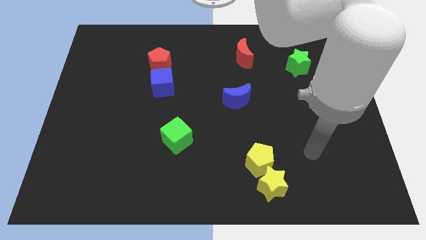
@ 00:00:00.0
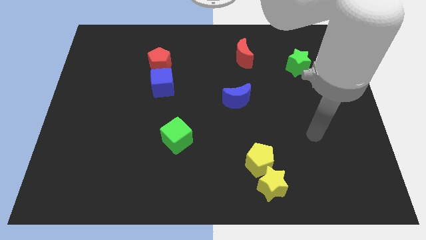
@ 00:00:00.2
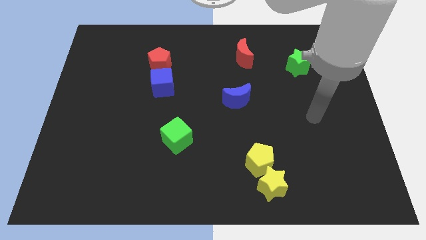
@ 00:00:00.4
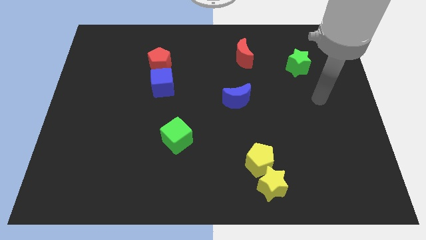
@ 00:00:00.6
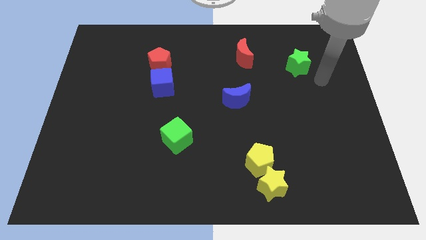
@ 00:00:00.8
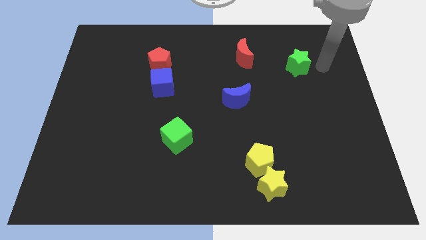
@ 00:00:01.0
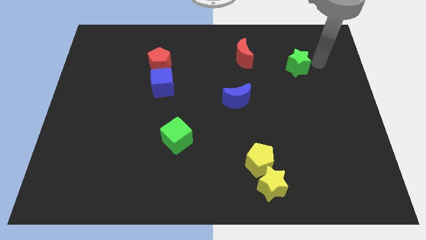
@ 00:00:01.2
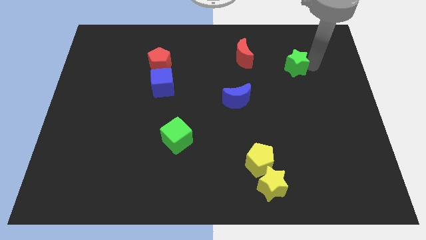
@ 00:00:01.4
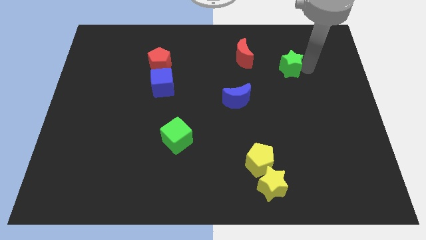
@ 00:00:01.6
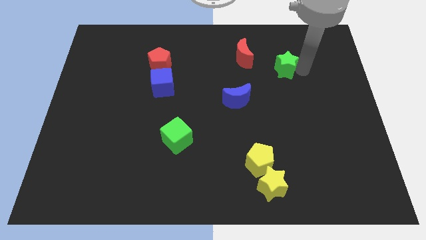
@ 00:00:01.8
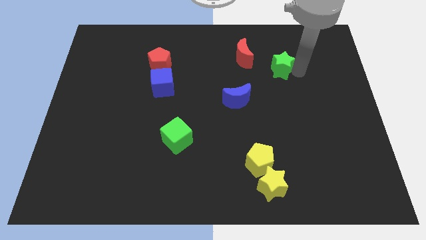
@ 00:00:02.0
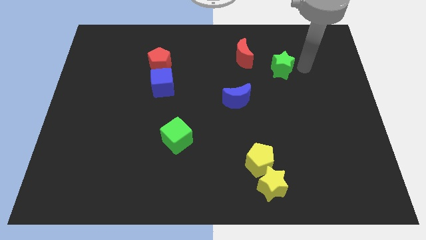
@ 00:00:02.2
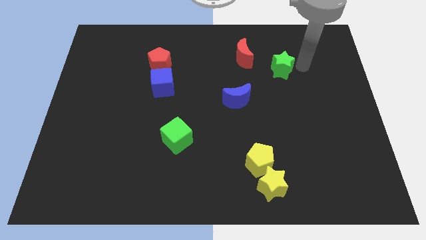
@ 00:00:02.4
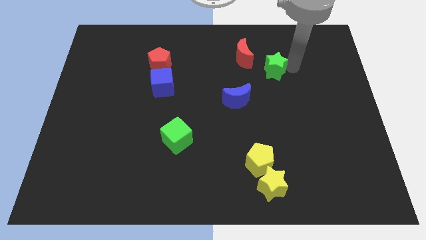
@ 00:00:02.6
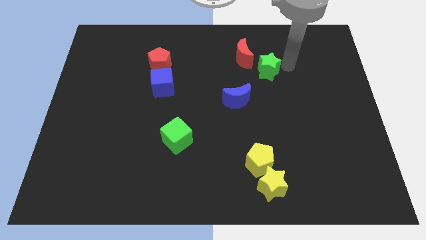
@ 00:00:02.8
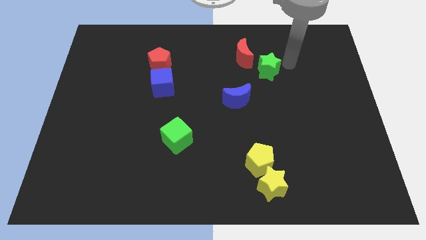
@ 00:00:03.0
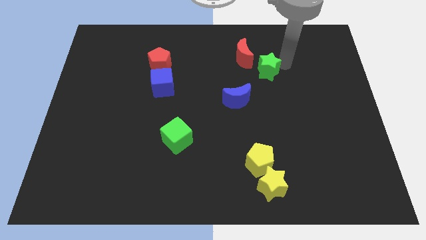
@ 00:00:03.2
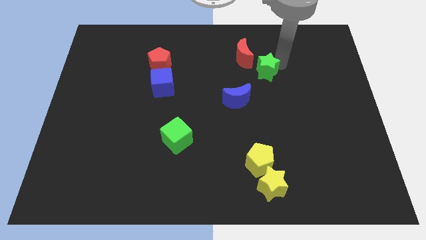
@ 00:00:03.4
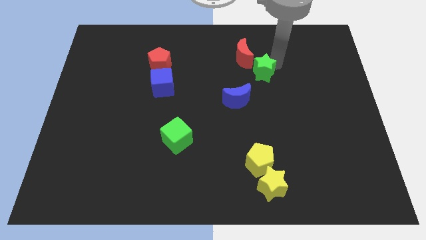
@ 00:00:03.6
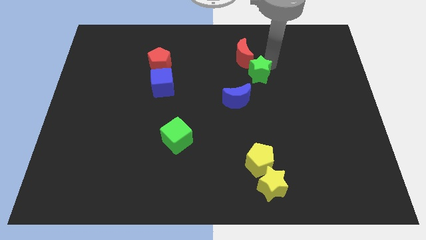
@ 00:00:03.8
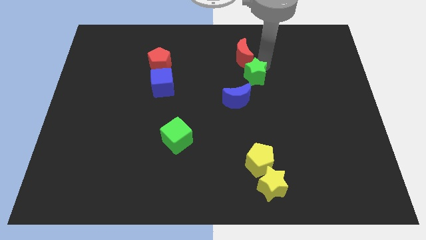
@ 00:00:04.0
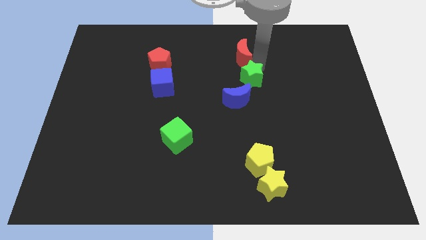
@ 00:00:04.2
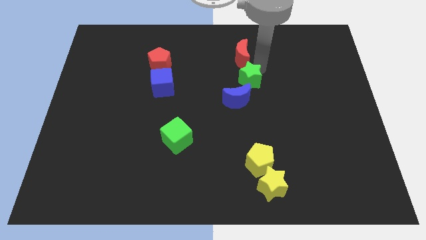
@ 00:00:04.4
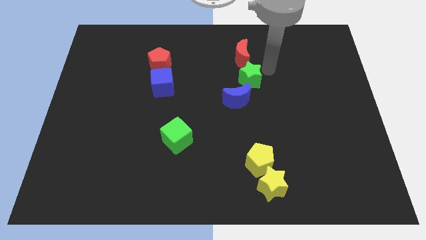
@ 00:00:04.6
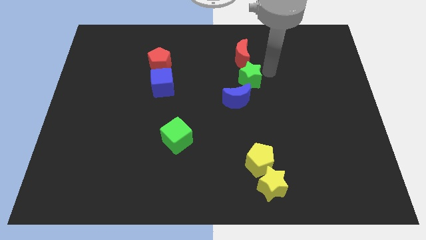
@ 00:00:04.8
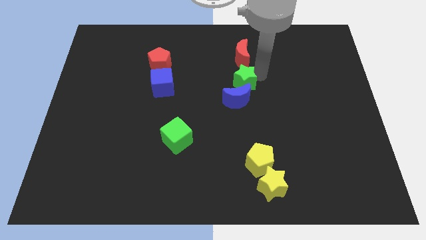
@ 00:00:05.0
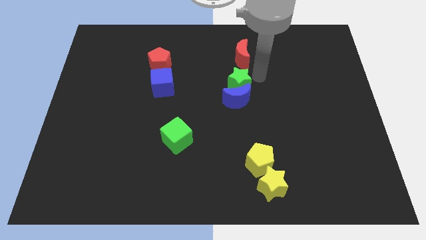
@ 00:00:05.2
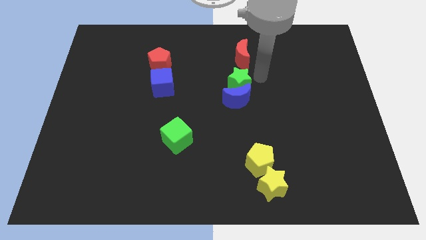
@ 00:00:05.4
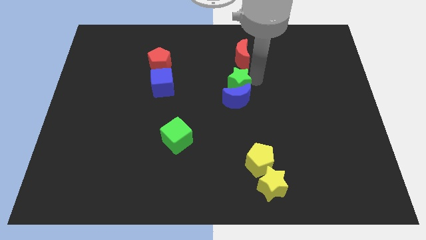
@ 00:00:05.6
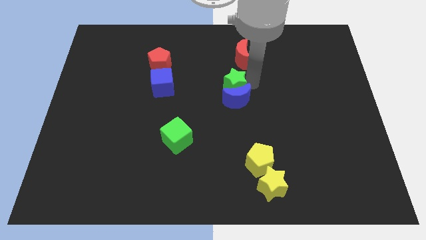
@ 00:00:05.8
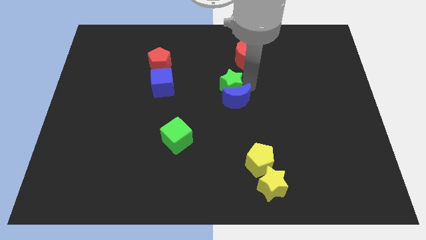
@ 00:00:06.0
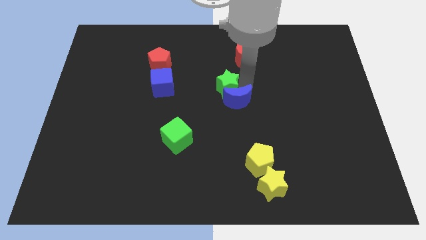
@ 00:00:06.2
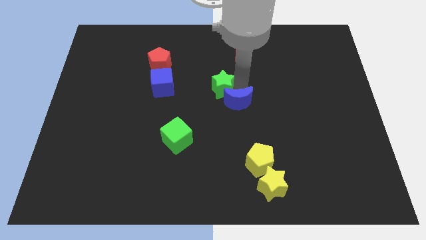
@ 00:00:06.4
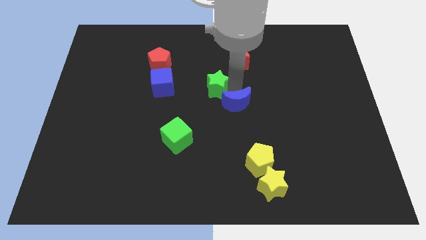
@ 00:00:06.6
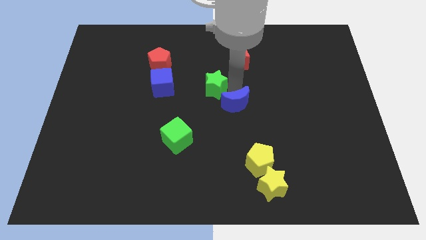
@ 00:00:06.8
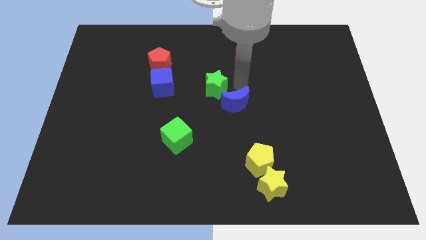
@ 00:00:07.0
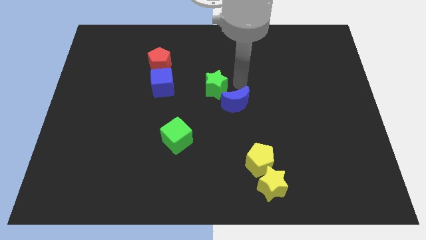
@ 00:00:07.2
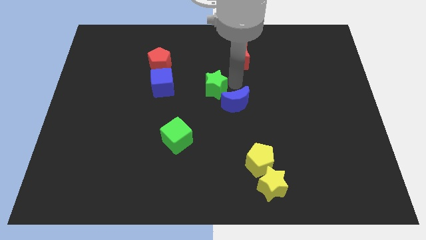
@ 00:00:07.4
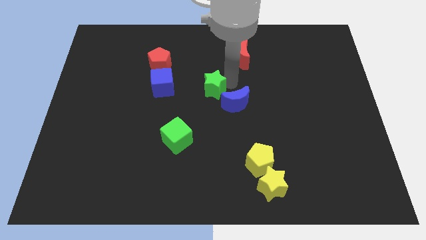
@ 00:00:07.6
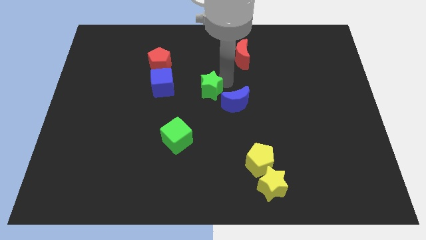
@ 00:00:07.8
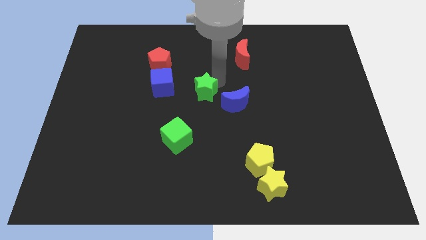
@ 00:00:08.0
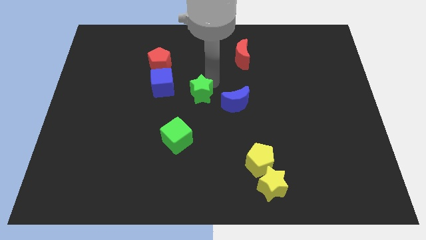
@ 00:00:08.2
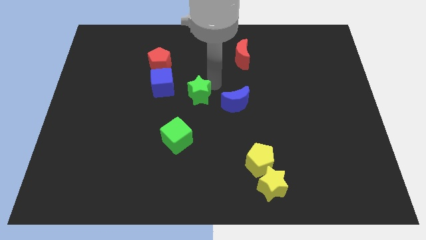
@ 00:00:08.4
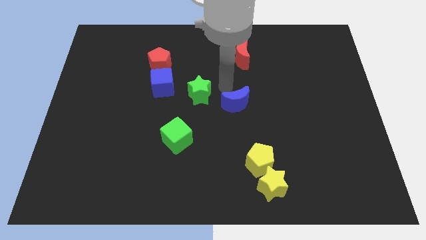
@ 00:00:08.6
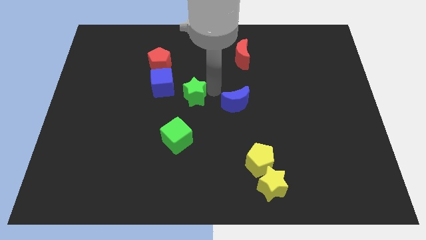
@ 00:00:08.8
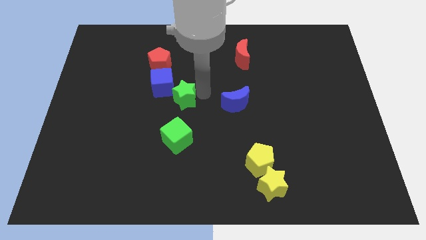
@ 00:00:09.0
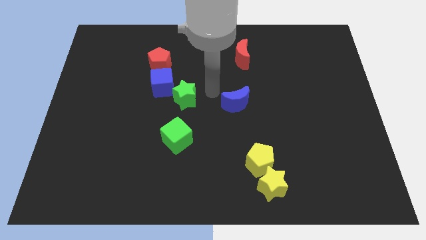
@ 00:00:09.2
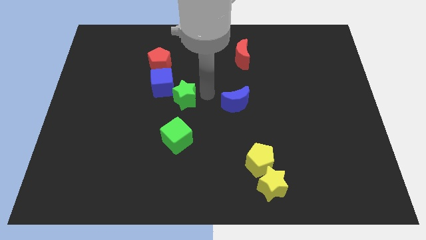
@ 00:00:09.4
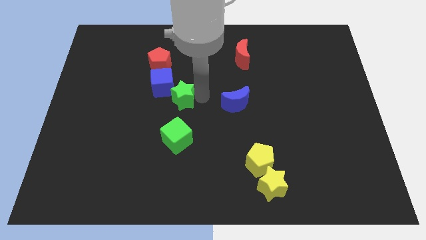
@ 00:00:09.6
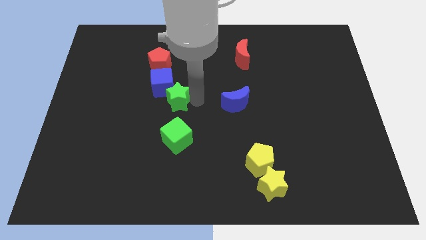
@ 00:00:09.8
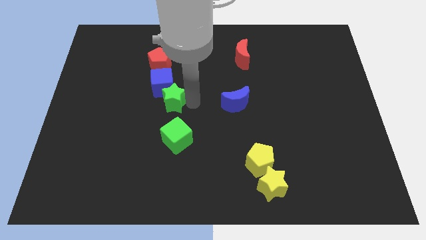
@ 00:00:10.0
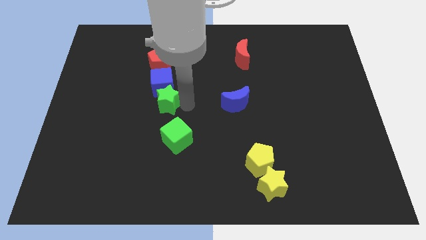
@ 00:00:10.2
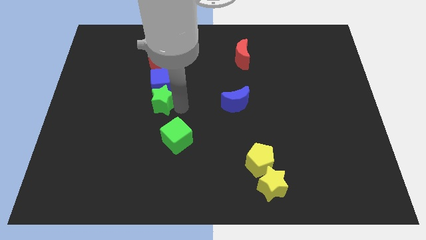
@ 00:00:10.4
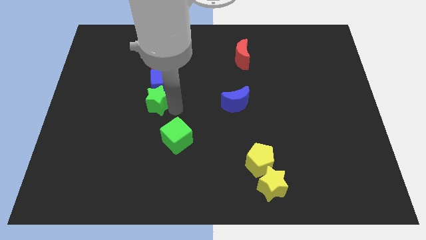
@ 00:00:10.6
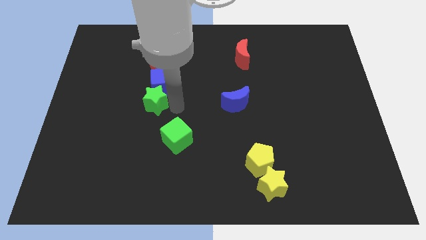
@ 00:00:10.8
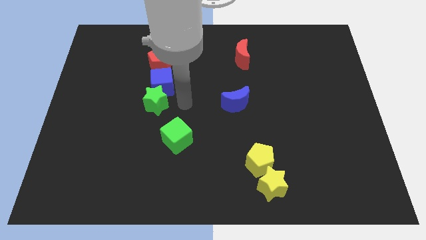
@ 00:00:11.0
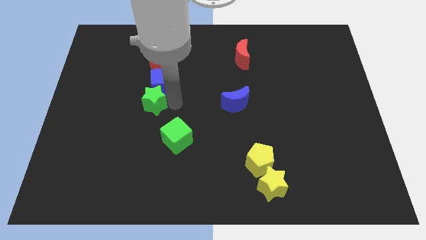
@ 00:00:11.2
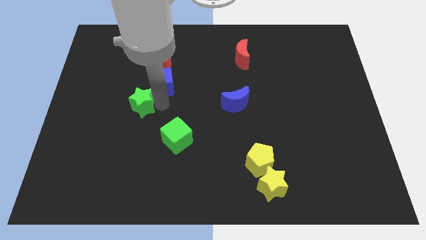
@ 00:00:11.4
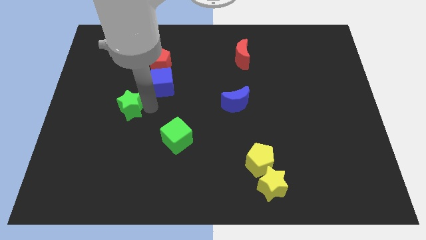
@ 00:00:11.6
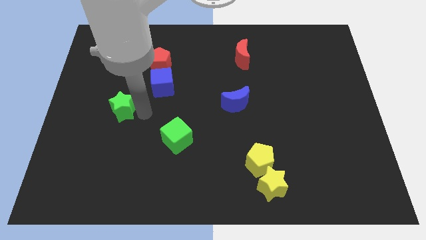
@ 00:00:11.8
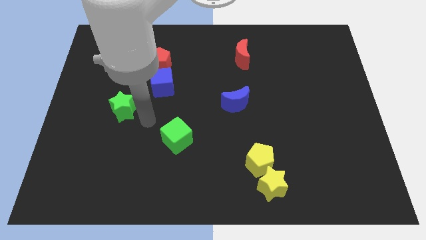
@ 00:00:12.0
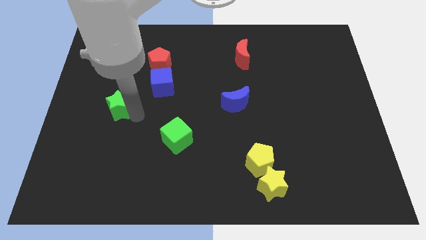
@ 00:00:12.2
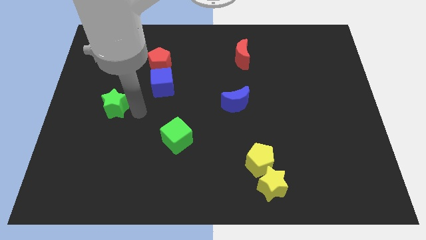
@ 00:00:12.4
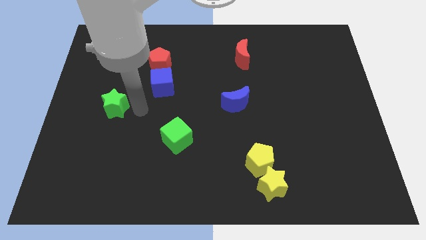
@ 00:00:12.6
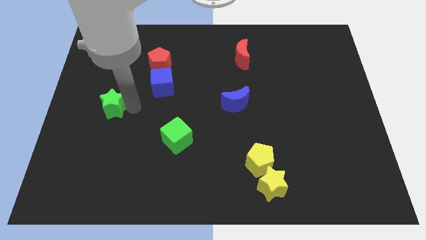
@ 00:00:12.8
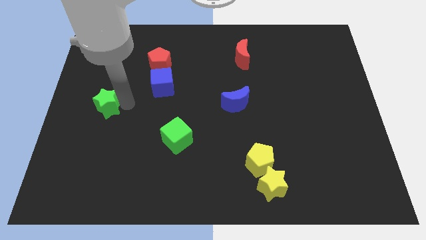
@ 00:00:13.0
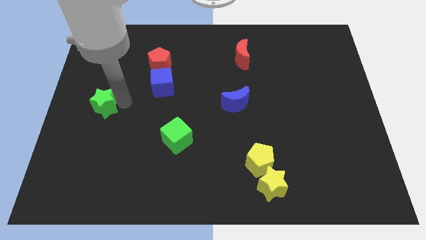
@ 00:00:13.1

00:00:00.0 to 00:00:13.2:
push the green star to the left side of the board
